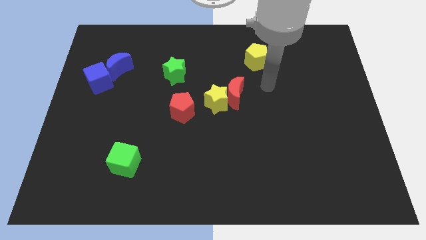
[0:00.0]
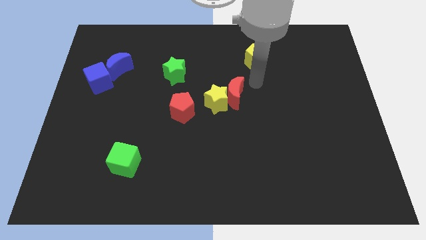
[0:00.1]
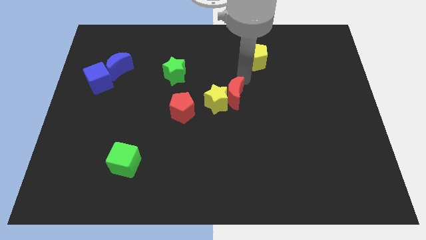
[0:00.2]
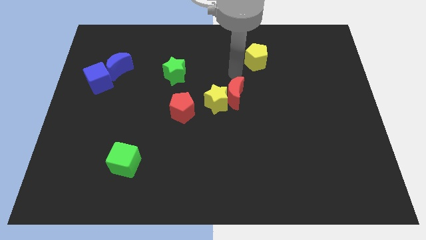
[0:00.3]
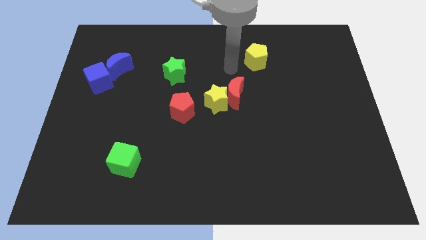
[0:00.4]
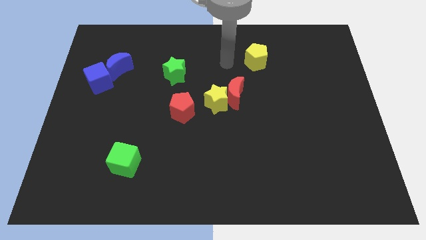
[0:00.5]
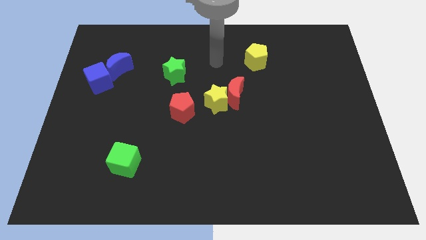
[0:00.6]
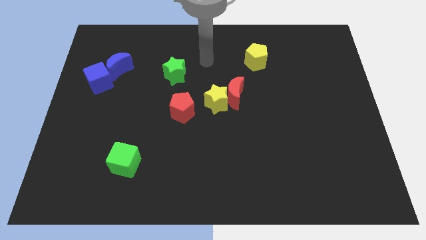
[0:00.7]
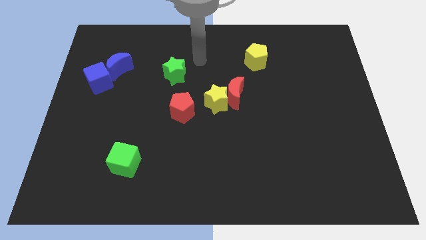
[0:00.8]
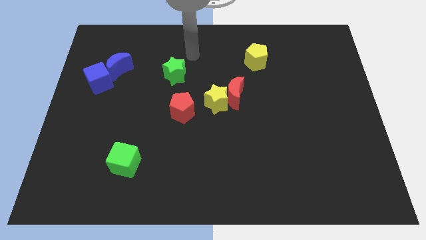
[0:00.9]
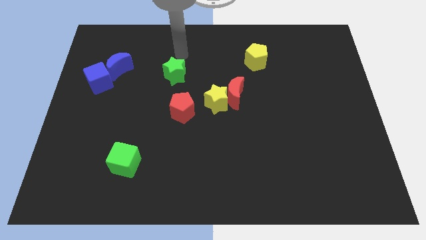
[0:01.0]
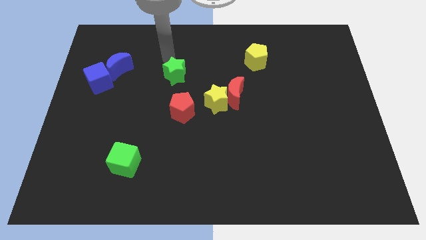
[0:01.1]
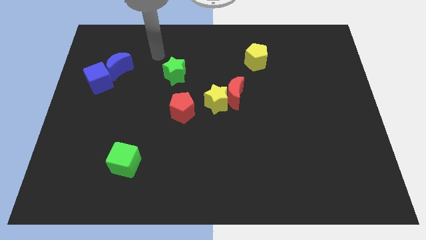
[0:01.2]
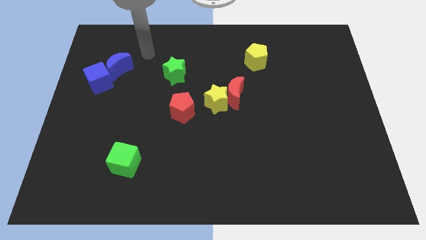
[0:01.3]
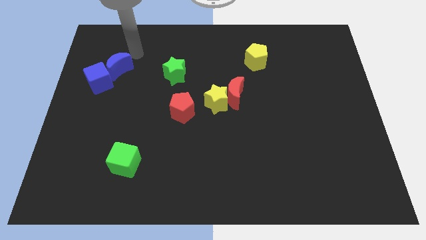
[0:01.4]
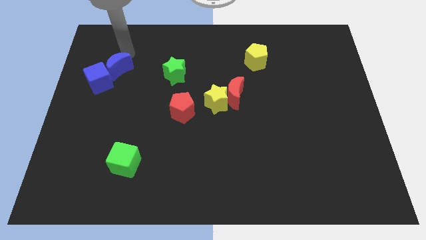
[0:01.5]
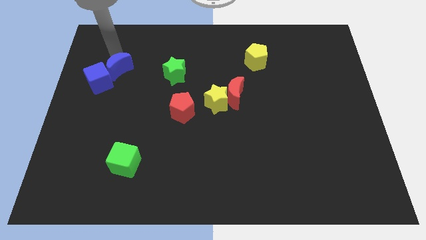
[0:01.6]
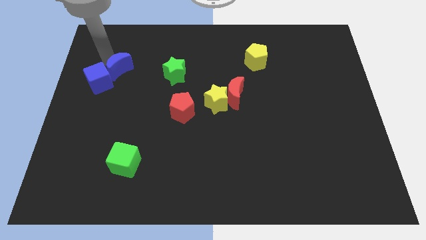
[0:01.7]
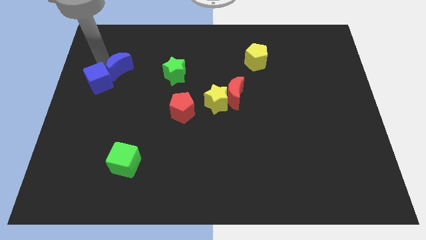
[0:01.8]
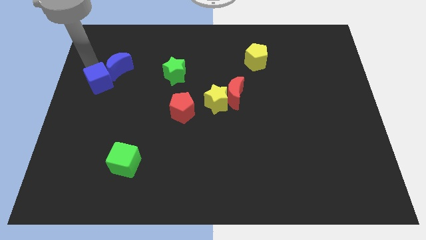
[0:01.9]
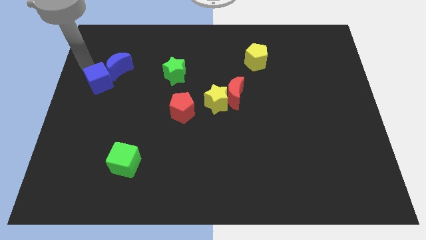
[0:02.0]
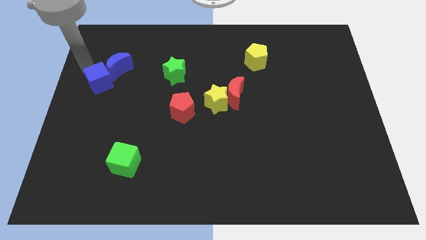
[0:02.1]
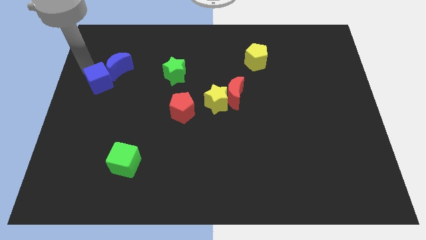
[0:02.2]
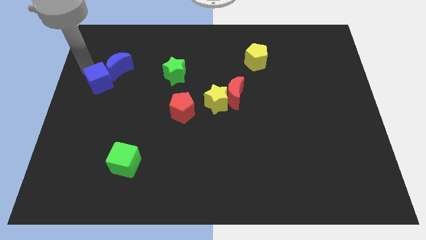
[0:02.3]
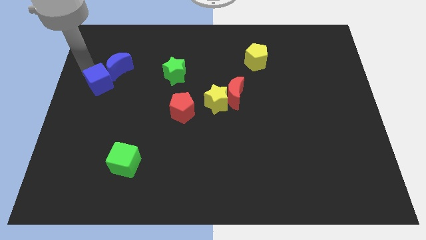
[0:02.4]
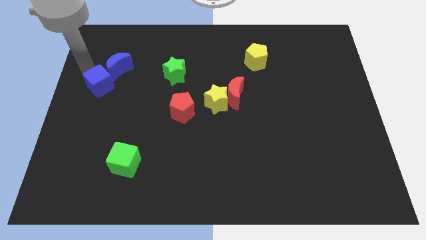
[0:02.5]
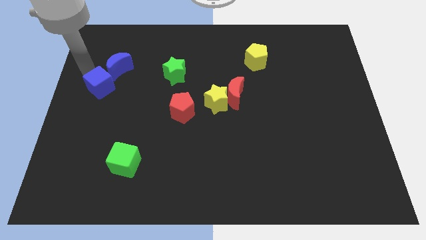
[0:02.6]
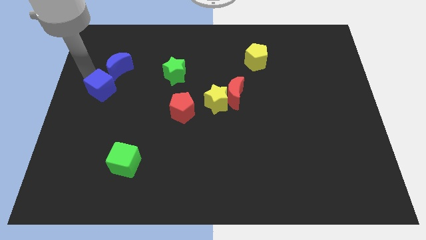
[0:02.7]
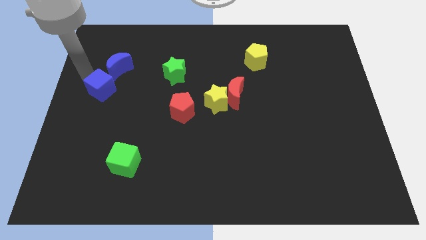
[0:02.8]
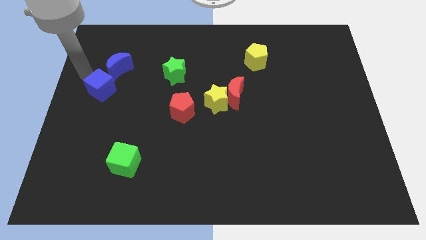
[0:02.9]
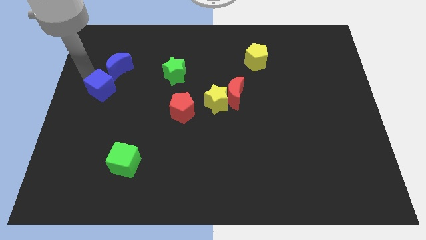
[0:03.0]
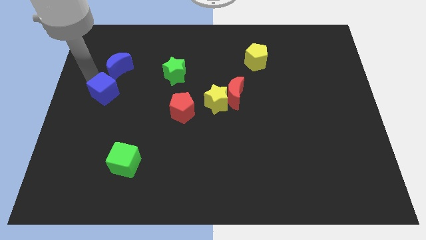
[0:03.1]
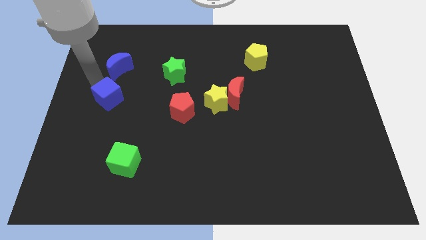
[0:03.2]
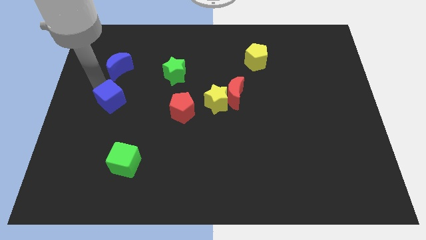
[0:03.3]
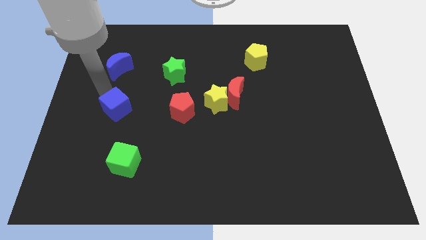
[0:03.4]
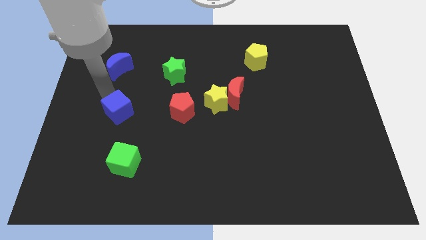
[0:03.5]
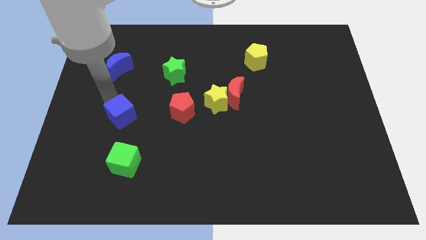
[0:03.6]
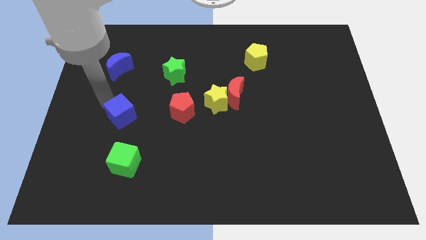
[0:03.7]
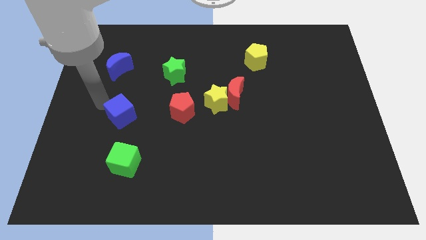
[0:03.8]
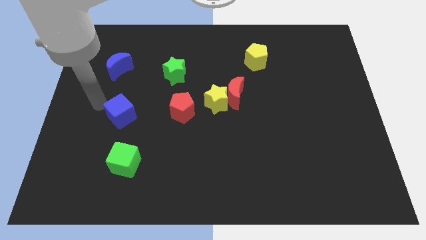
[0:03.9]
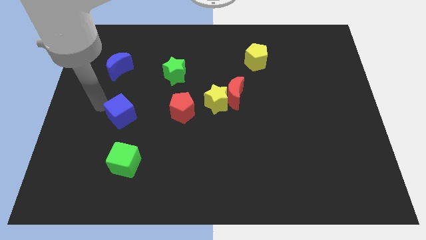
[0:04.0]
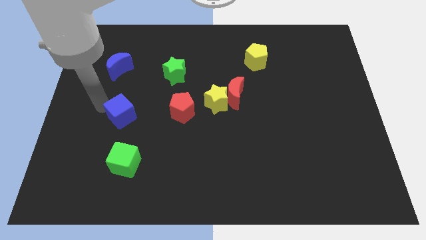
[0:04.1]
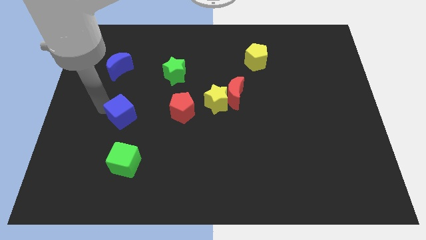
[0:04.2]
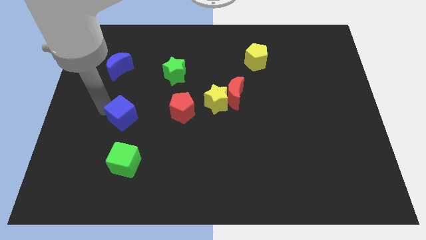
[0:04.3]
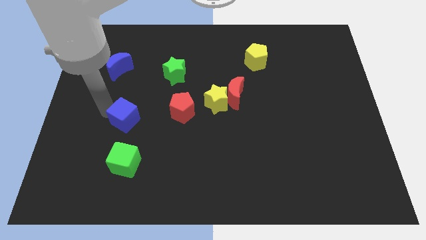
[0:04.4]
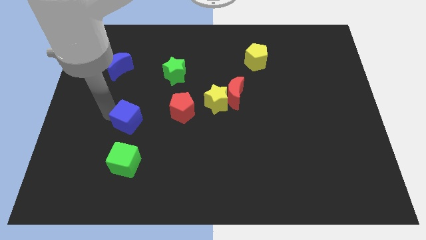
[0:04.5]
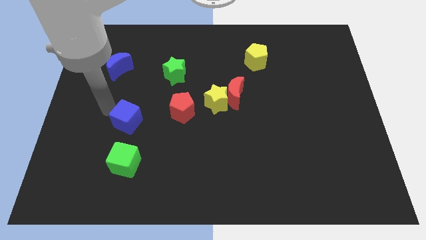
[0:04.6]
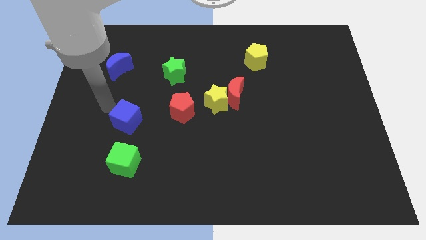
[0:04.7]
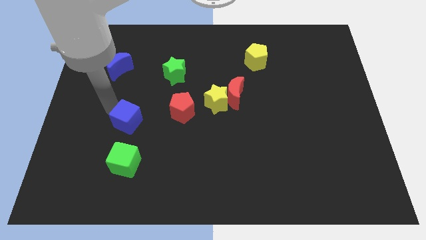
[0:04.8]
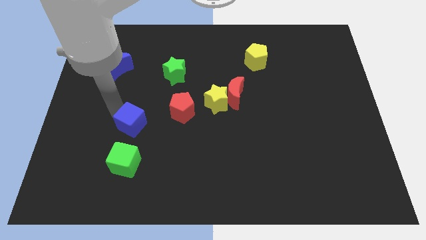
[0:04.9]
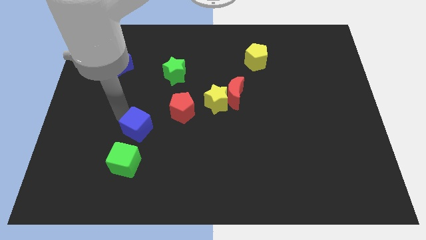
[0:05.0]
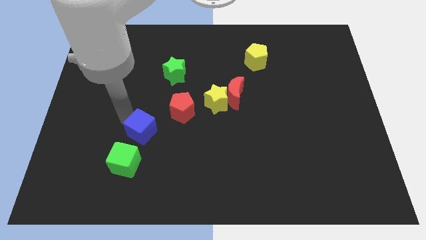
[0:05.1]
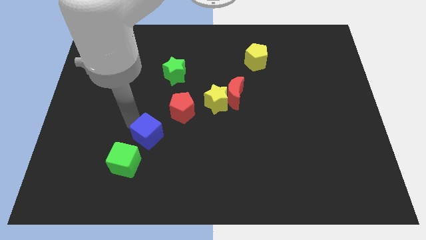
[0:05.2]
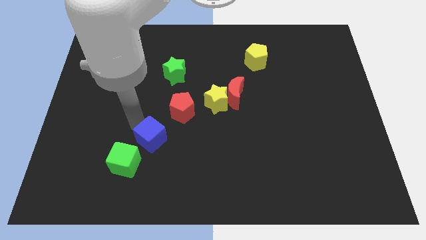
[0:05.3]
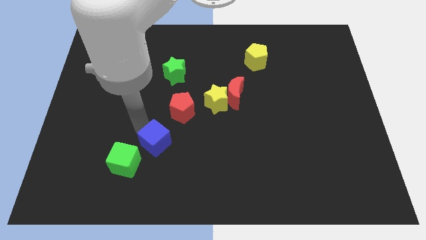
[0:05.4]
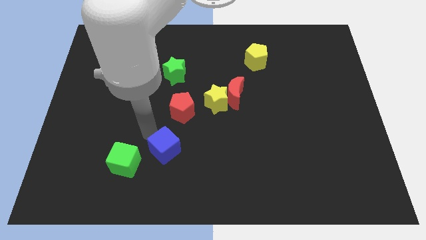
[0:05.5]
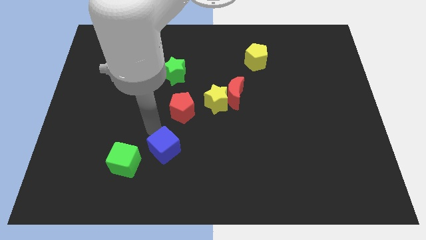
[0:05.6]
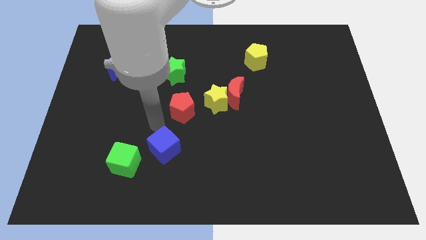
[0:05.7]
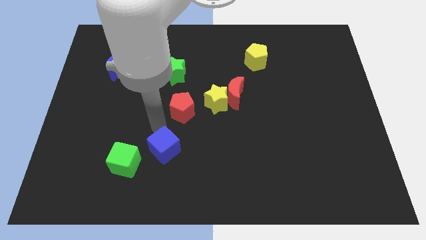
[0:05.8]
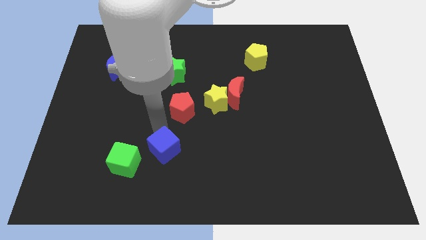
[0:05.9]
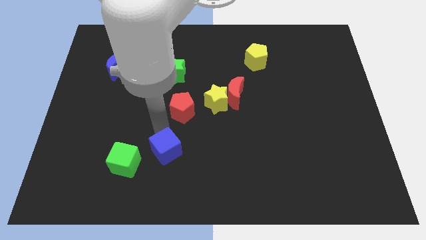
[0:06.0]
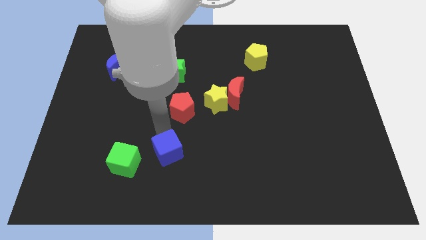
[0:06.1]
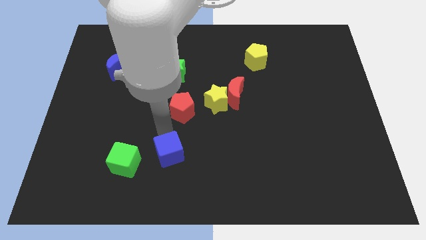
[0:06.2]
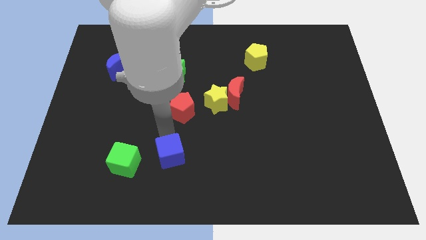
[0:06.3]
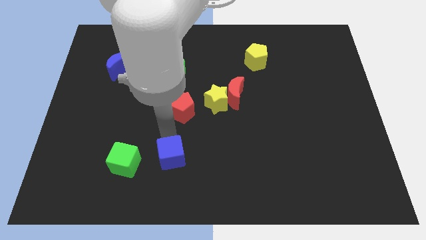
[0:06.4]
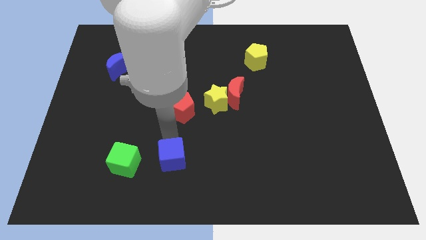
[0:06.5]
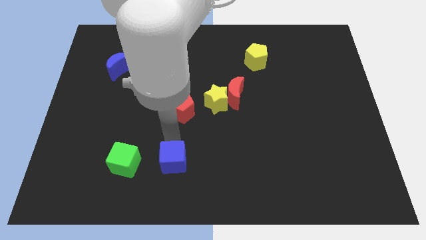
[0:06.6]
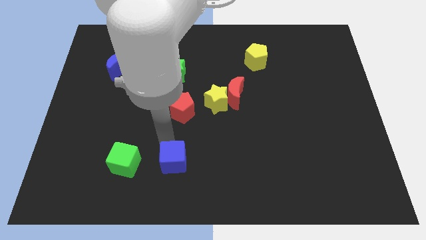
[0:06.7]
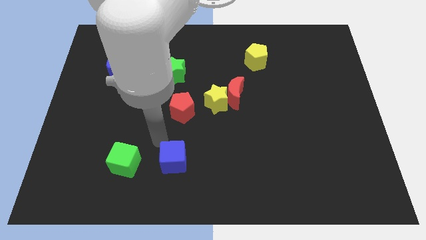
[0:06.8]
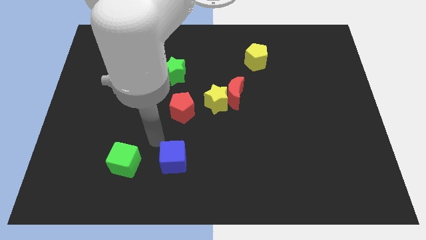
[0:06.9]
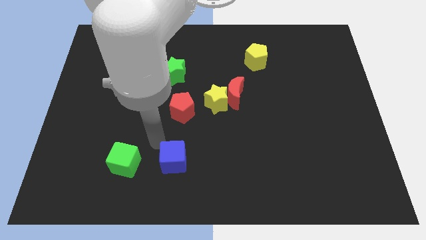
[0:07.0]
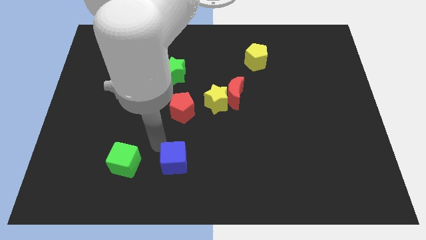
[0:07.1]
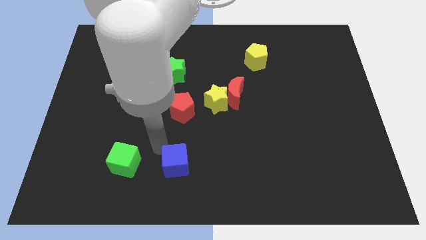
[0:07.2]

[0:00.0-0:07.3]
put the blue cube to the bottom side
